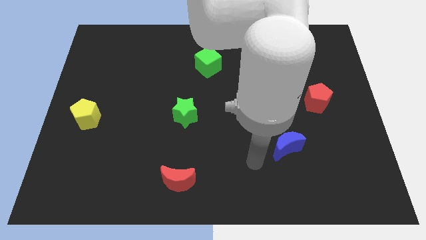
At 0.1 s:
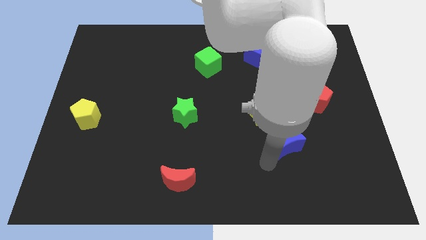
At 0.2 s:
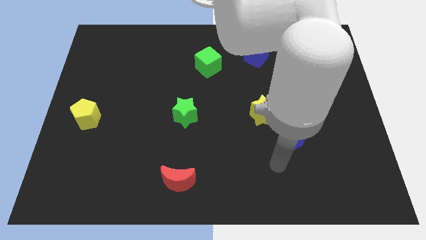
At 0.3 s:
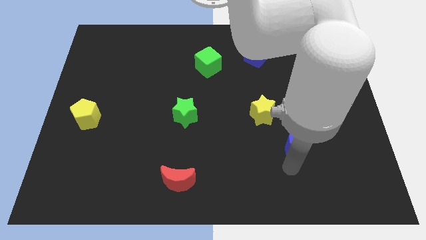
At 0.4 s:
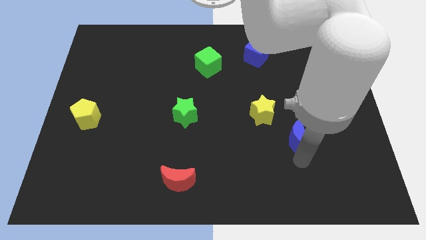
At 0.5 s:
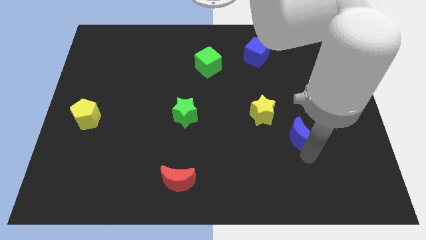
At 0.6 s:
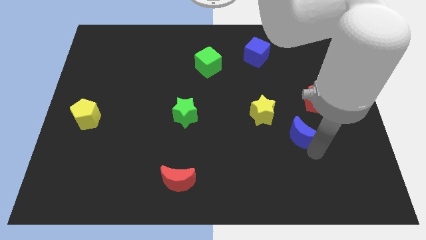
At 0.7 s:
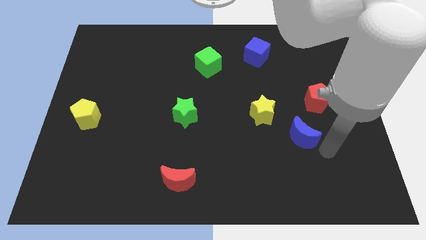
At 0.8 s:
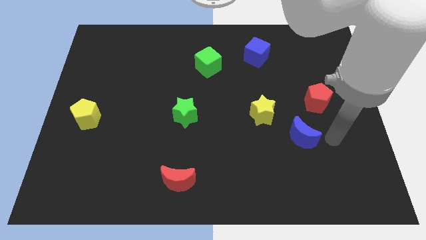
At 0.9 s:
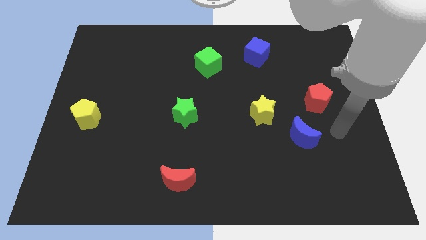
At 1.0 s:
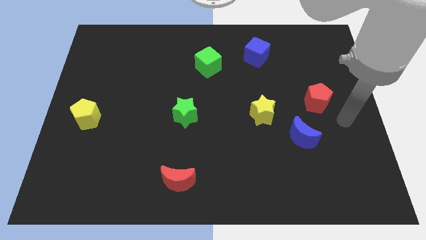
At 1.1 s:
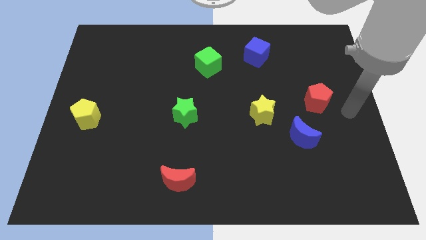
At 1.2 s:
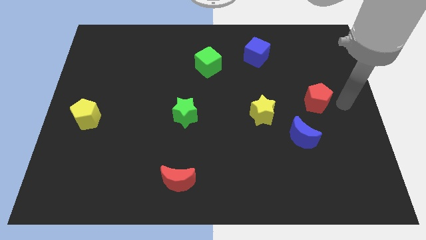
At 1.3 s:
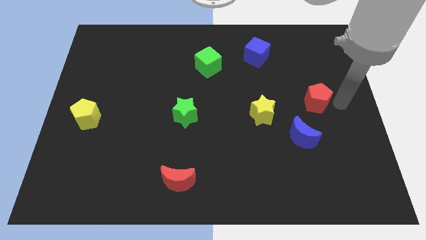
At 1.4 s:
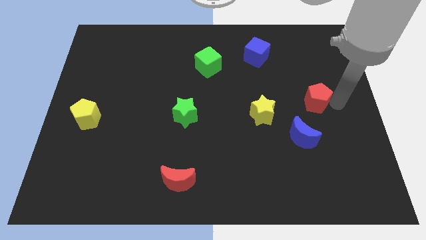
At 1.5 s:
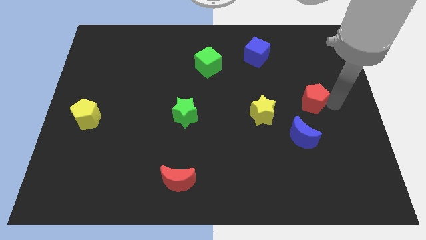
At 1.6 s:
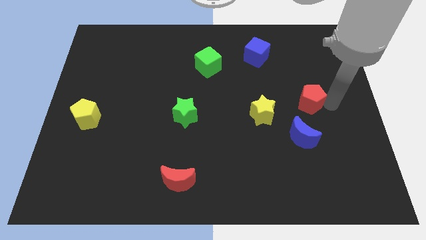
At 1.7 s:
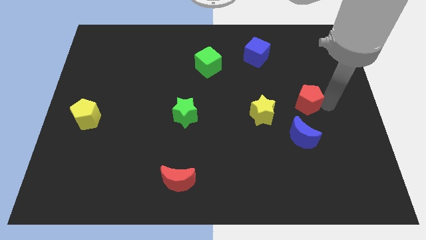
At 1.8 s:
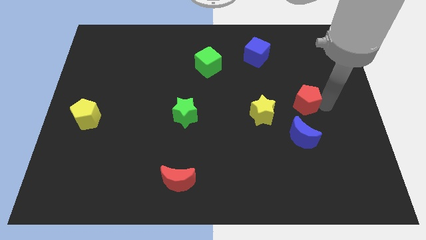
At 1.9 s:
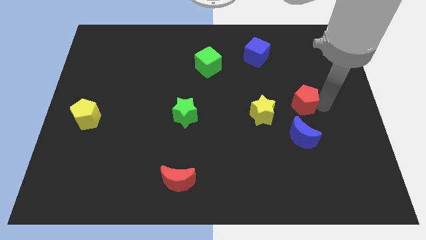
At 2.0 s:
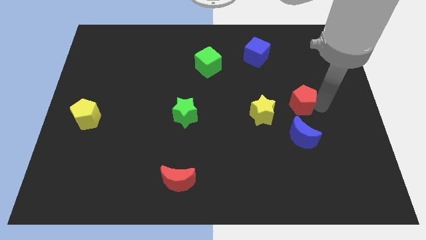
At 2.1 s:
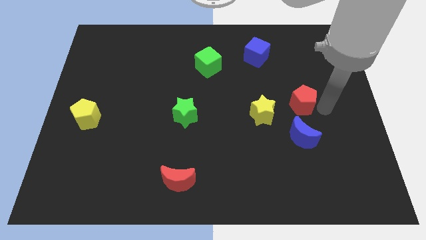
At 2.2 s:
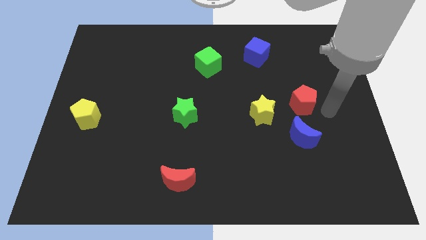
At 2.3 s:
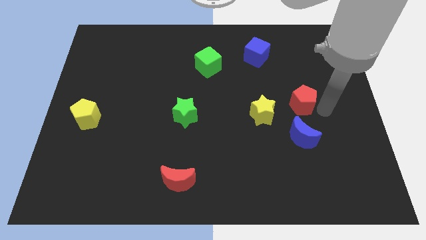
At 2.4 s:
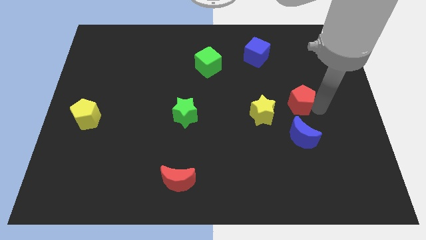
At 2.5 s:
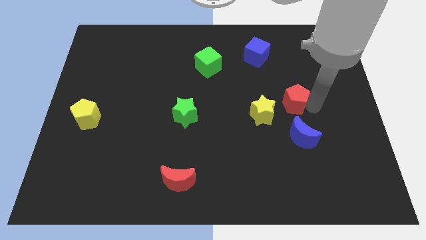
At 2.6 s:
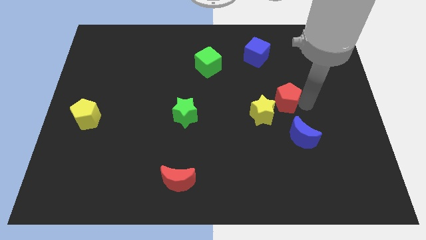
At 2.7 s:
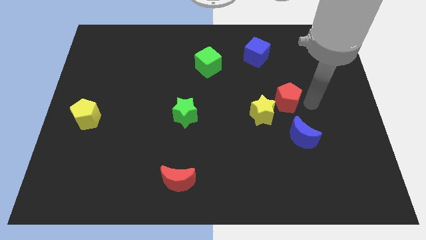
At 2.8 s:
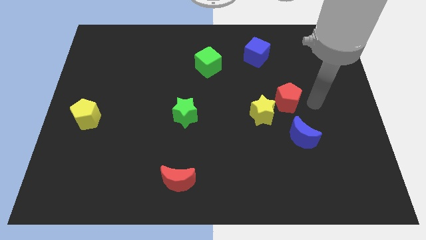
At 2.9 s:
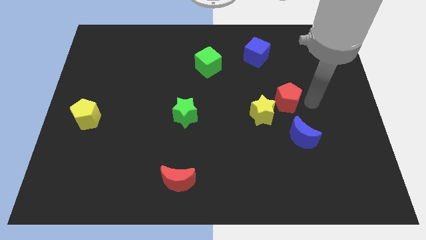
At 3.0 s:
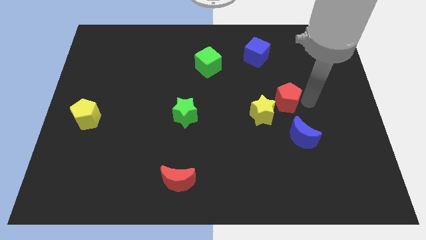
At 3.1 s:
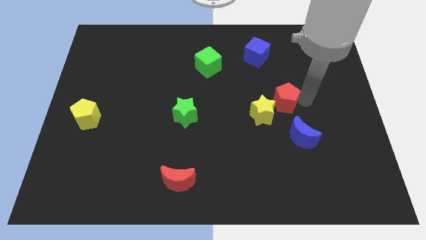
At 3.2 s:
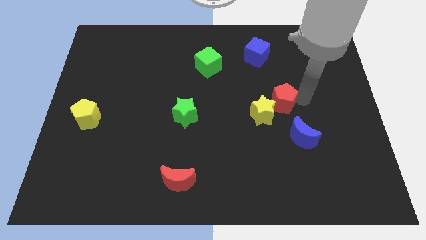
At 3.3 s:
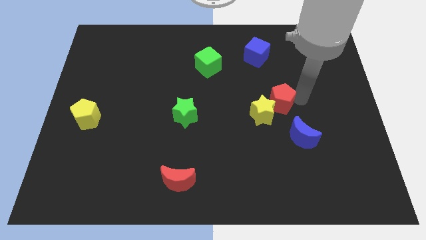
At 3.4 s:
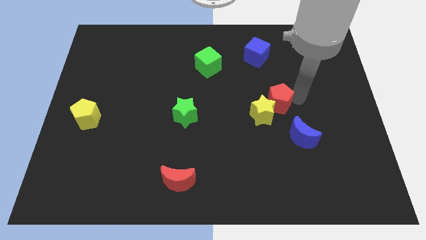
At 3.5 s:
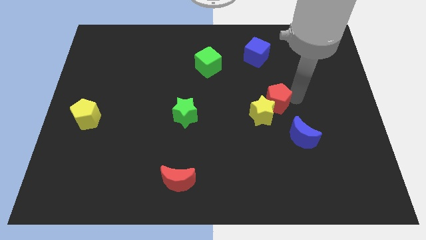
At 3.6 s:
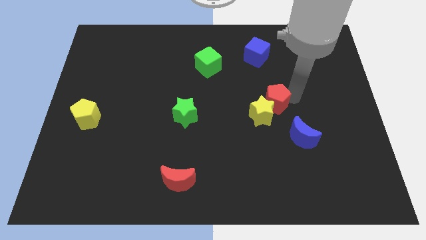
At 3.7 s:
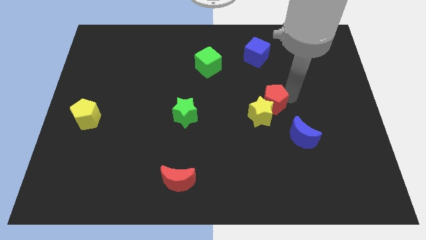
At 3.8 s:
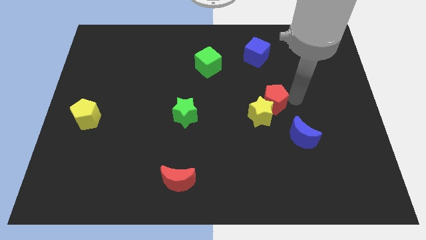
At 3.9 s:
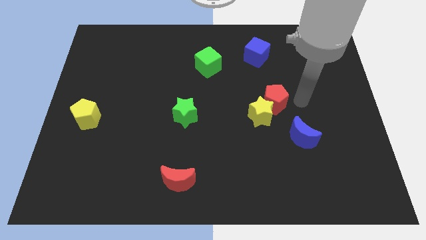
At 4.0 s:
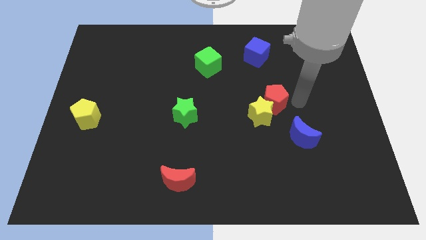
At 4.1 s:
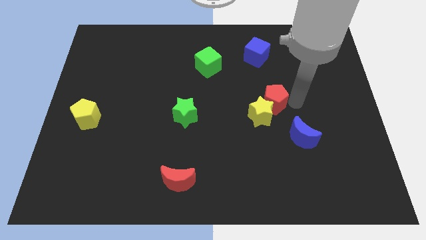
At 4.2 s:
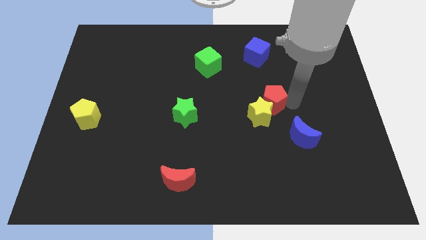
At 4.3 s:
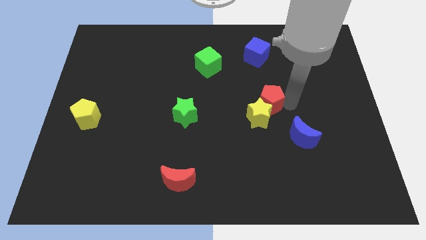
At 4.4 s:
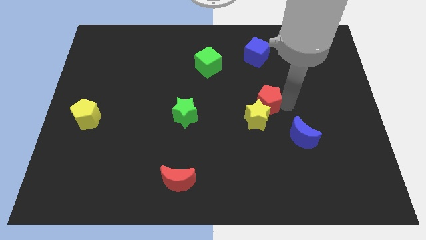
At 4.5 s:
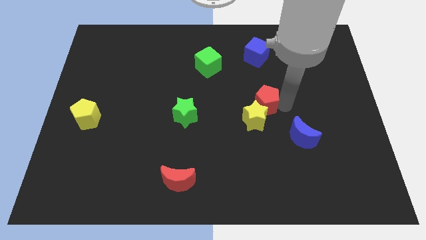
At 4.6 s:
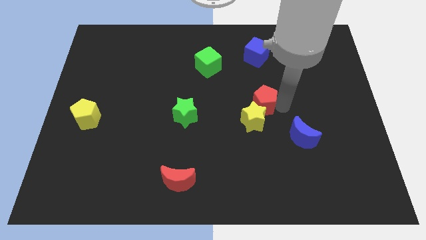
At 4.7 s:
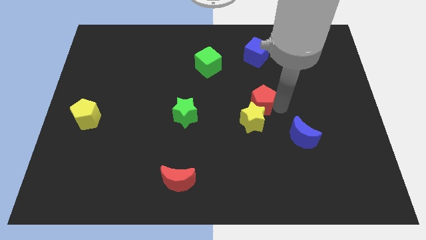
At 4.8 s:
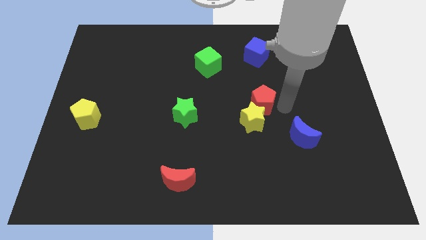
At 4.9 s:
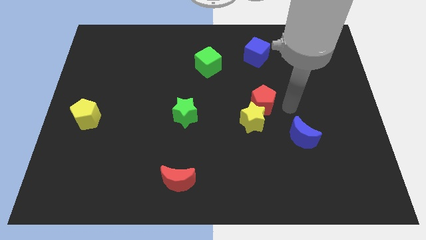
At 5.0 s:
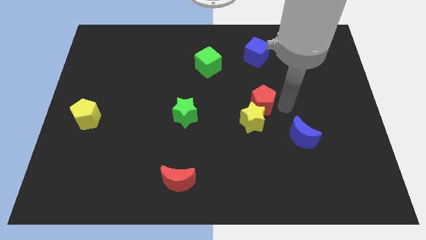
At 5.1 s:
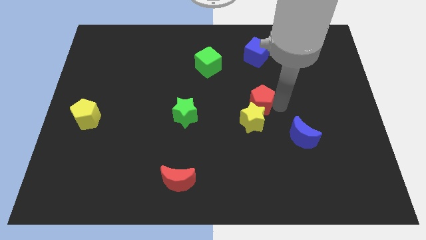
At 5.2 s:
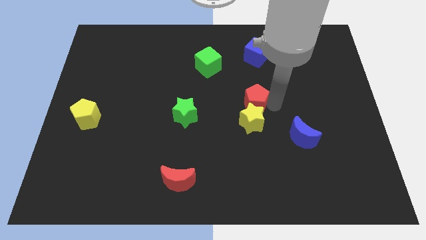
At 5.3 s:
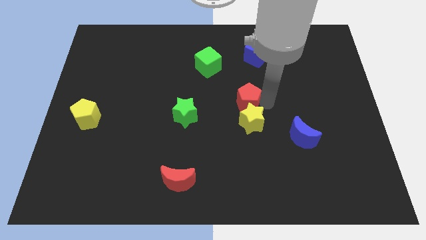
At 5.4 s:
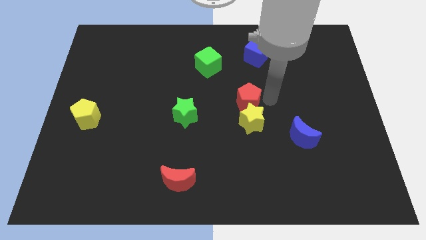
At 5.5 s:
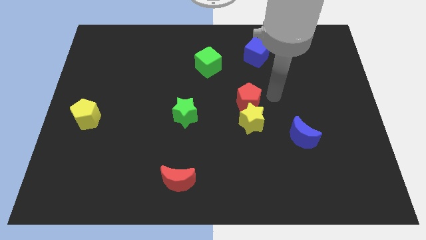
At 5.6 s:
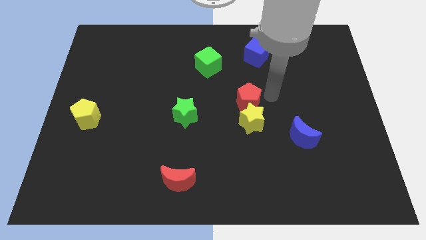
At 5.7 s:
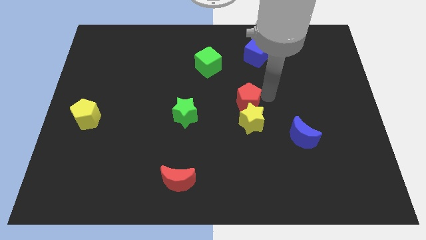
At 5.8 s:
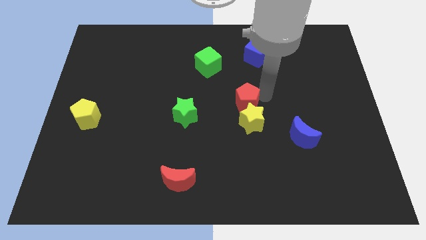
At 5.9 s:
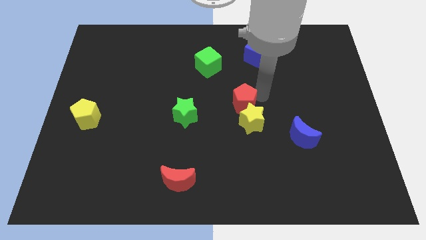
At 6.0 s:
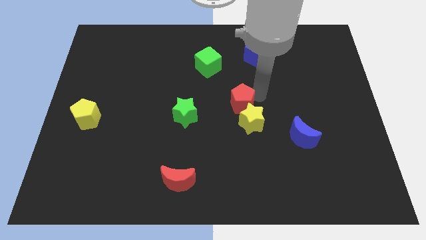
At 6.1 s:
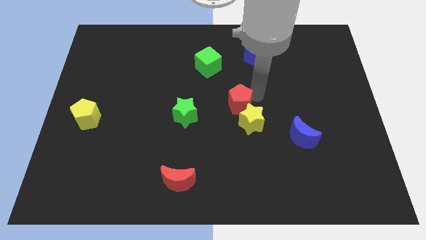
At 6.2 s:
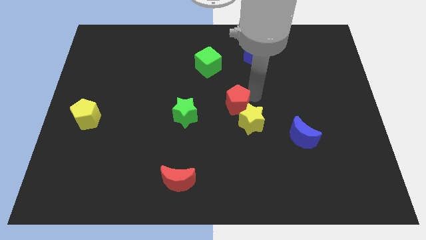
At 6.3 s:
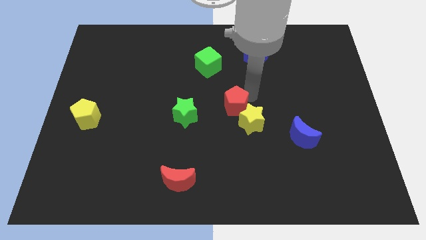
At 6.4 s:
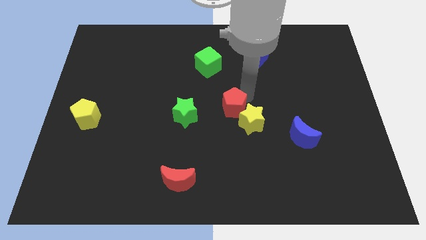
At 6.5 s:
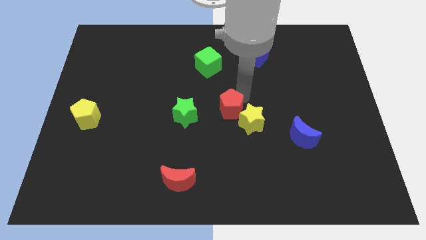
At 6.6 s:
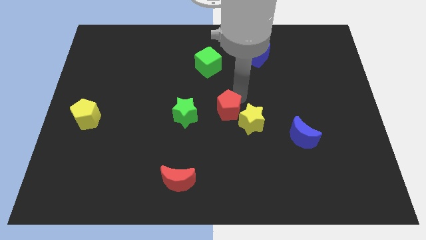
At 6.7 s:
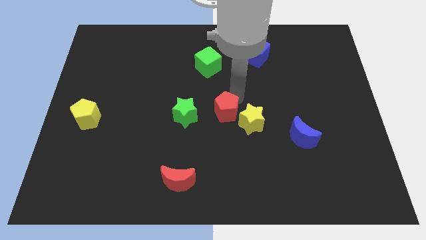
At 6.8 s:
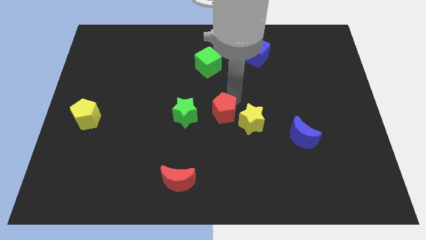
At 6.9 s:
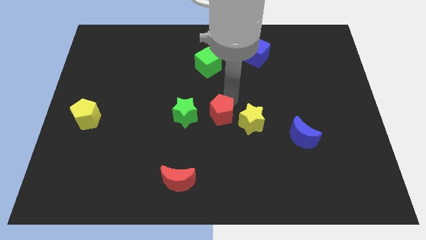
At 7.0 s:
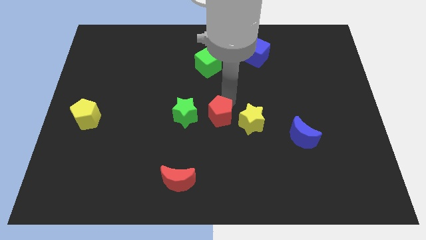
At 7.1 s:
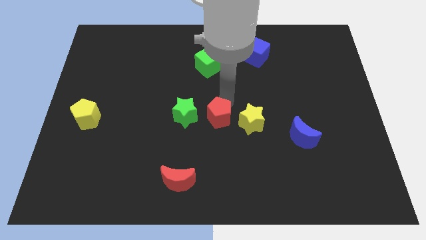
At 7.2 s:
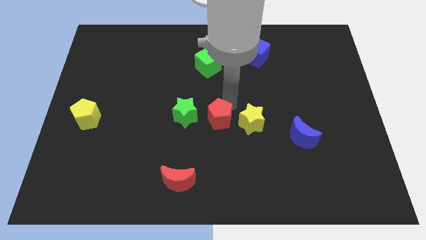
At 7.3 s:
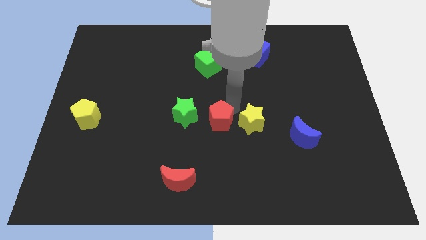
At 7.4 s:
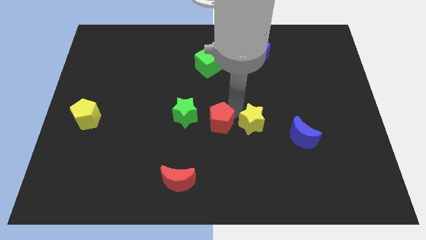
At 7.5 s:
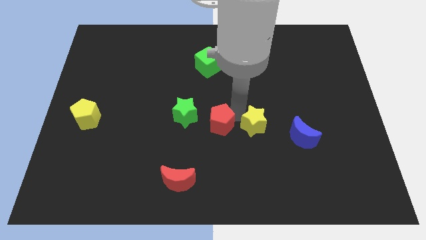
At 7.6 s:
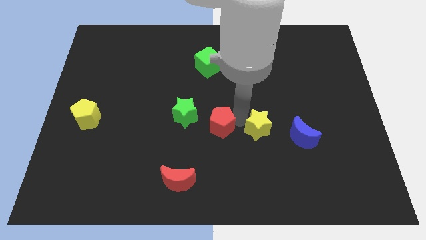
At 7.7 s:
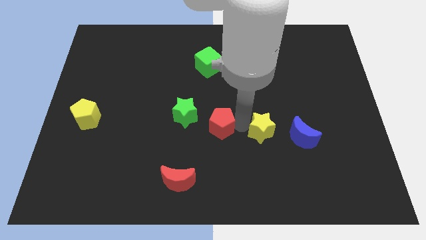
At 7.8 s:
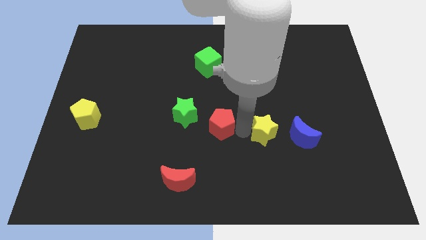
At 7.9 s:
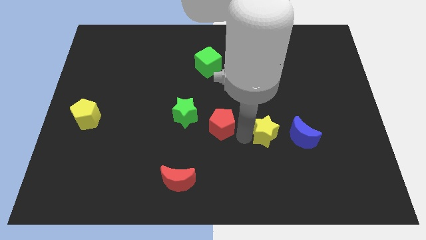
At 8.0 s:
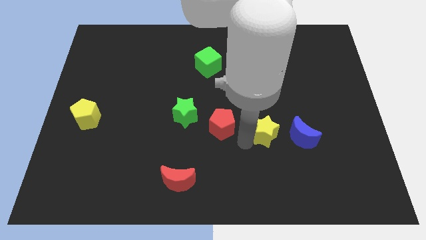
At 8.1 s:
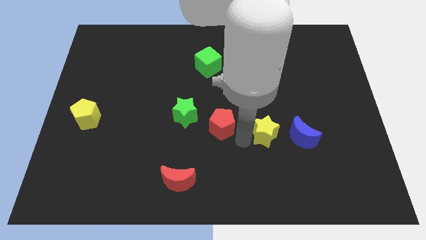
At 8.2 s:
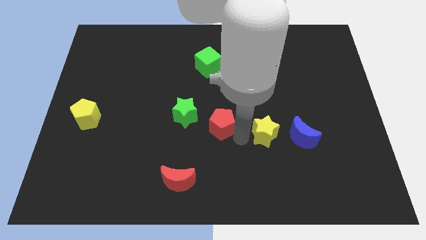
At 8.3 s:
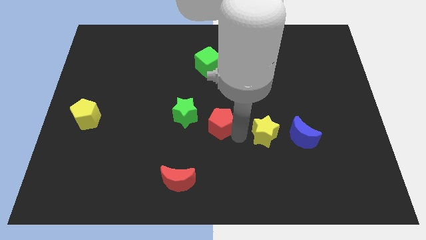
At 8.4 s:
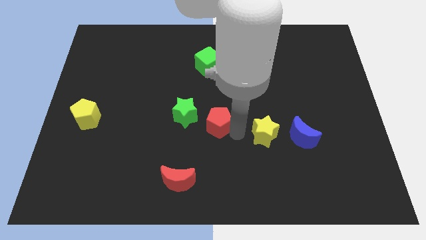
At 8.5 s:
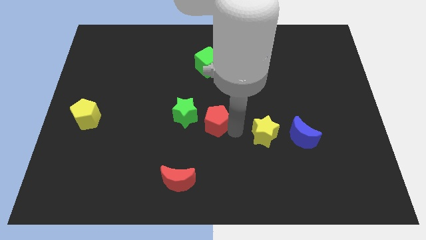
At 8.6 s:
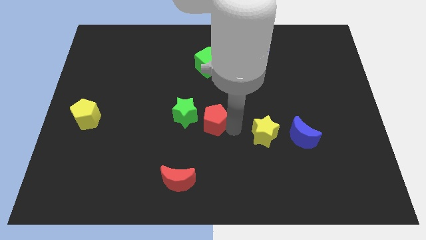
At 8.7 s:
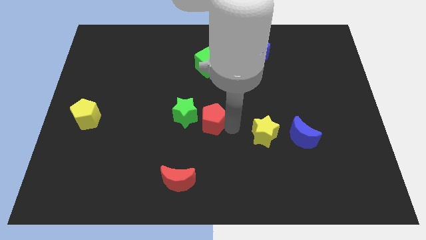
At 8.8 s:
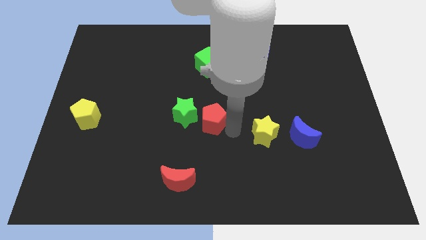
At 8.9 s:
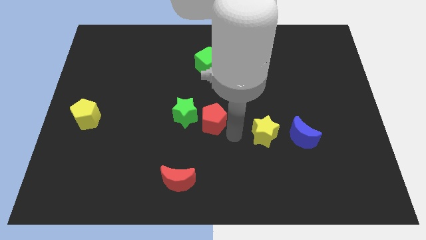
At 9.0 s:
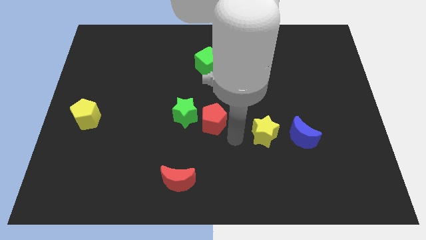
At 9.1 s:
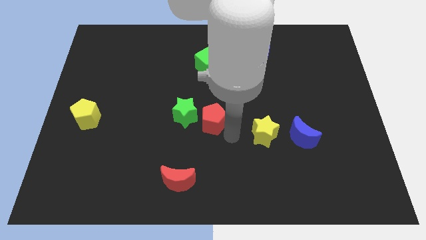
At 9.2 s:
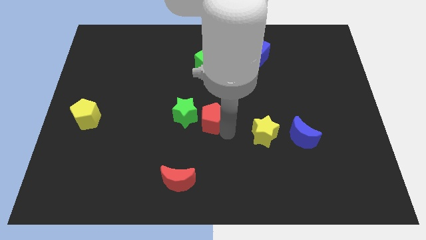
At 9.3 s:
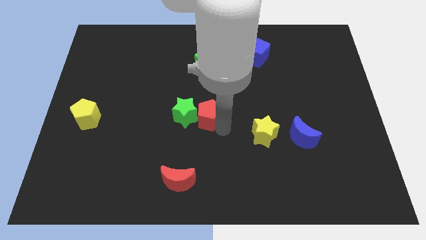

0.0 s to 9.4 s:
push the red pentagon close to the green star
